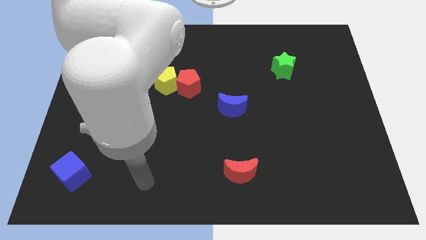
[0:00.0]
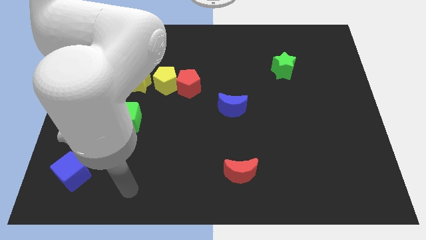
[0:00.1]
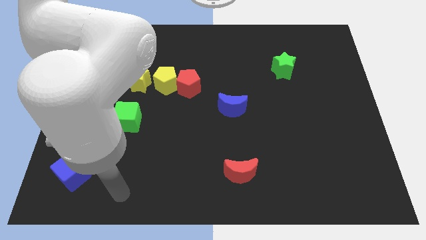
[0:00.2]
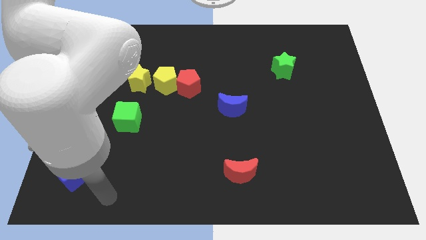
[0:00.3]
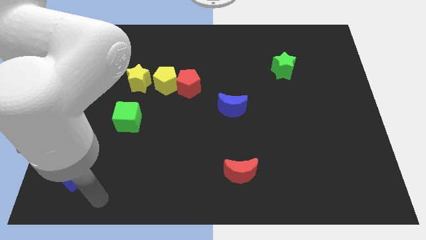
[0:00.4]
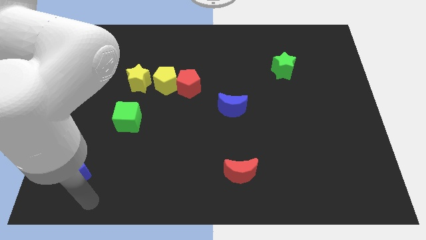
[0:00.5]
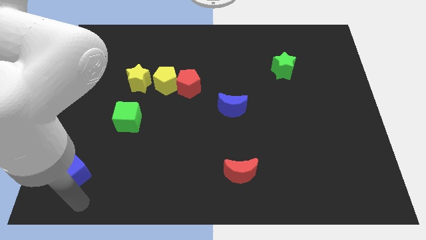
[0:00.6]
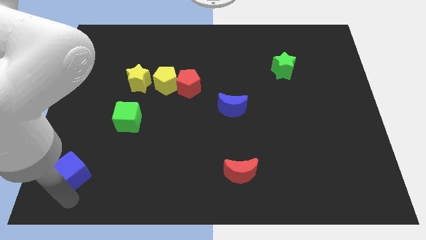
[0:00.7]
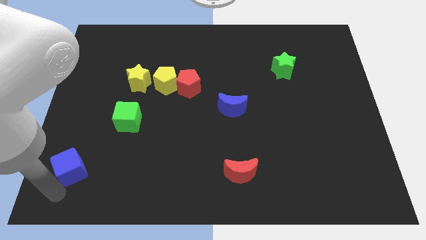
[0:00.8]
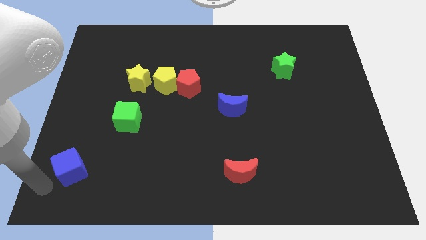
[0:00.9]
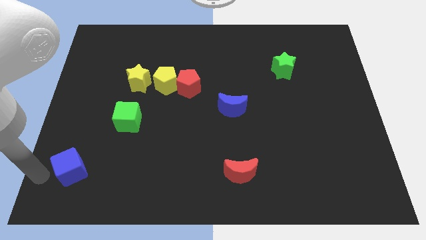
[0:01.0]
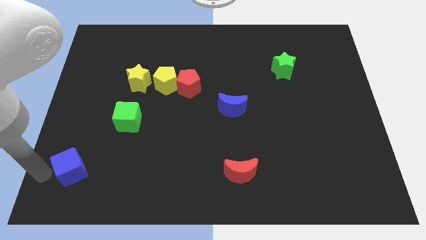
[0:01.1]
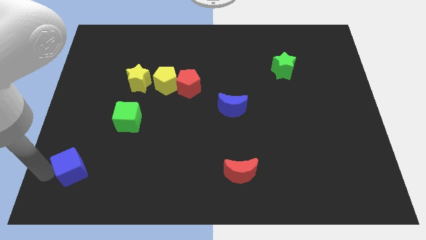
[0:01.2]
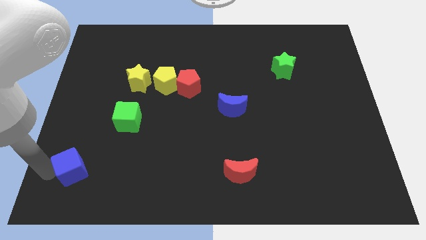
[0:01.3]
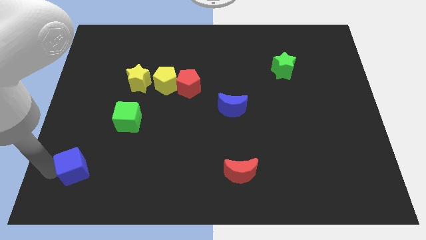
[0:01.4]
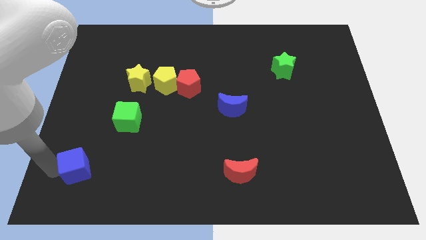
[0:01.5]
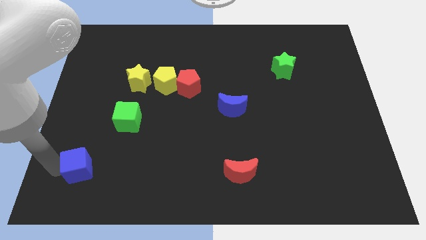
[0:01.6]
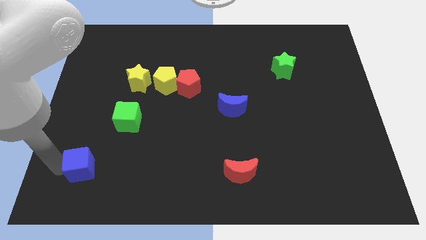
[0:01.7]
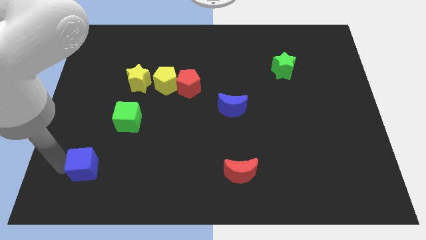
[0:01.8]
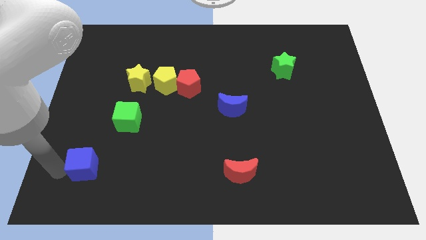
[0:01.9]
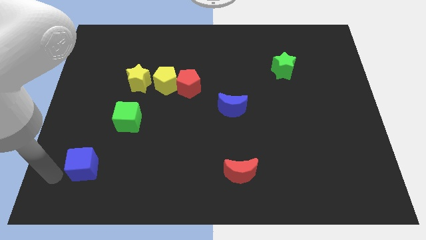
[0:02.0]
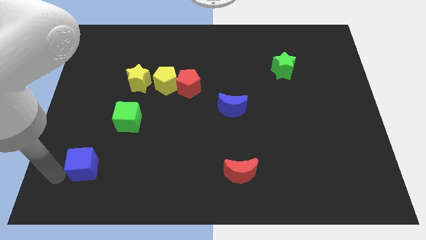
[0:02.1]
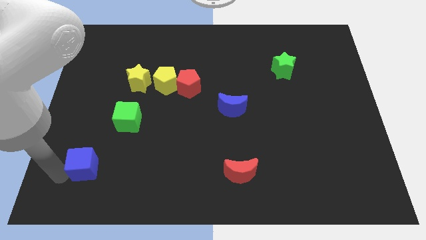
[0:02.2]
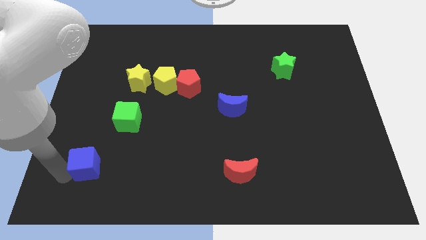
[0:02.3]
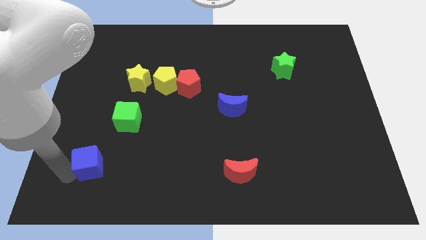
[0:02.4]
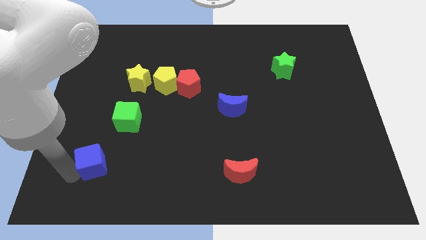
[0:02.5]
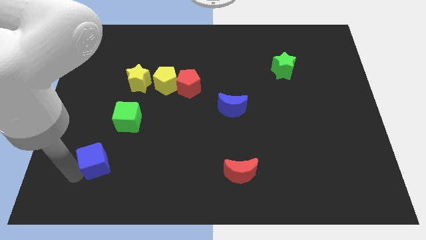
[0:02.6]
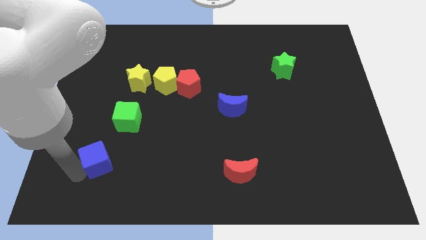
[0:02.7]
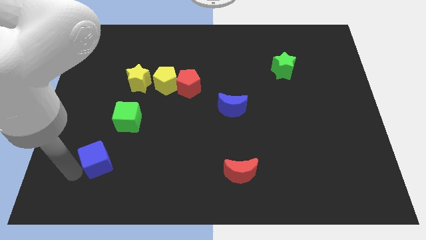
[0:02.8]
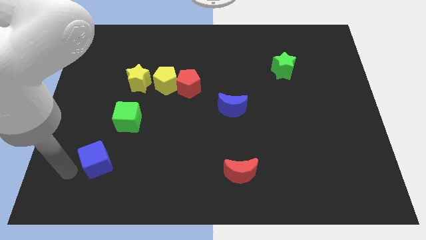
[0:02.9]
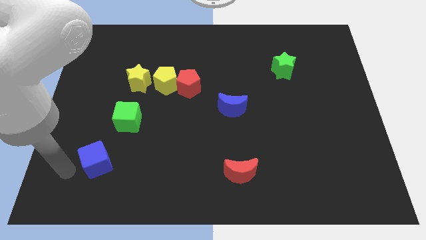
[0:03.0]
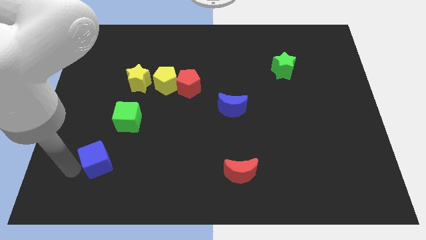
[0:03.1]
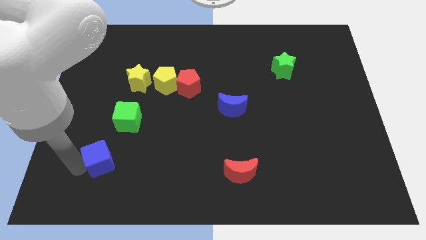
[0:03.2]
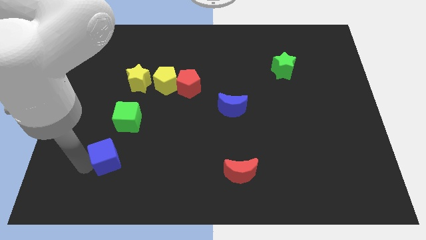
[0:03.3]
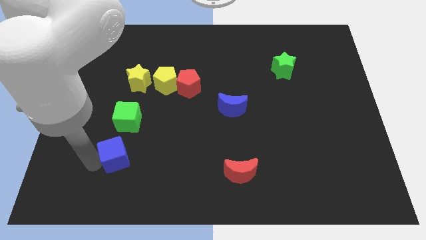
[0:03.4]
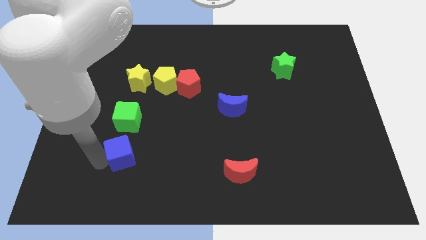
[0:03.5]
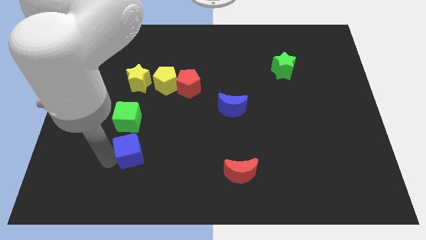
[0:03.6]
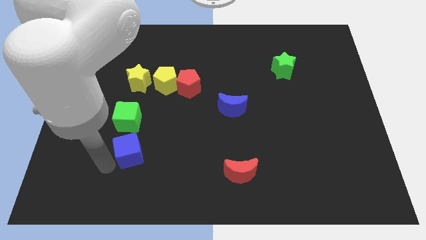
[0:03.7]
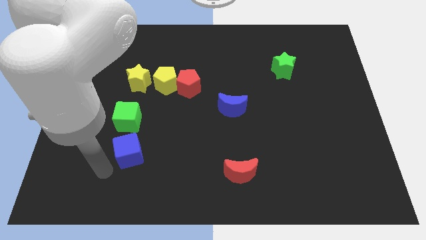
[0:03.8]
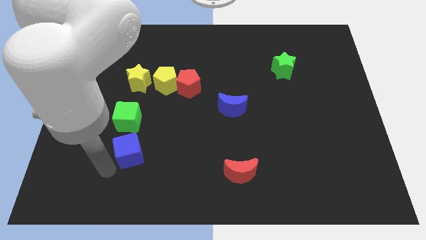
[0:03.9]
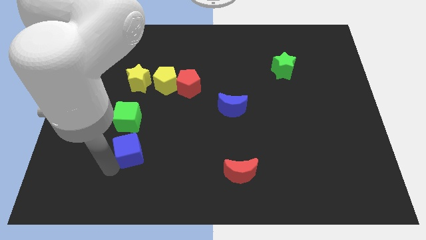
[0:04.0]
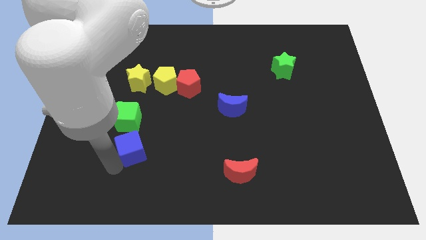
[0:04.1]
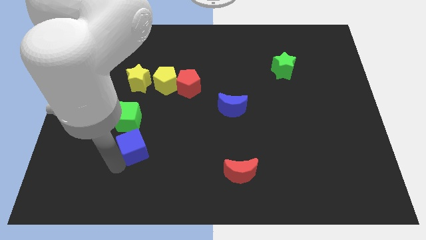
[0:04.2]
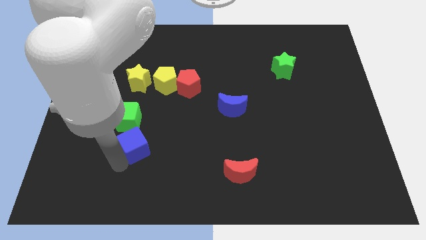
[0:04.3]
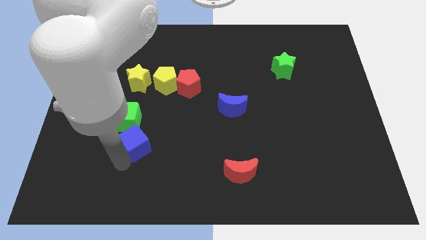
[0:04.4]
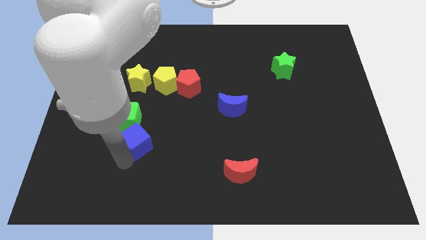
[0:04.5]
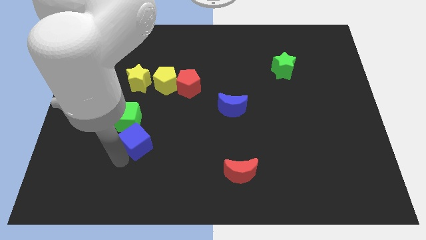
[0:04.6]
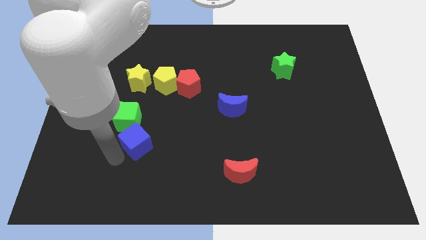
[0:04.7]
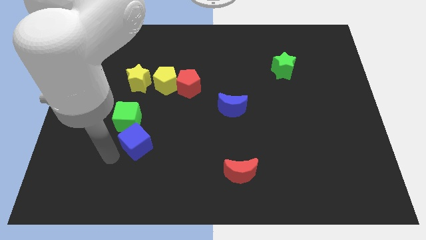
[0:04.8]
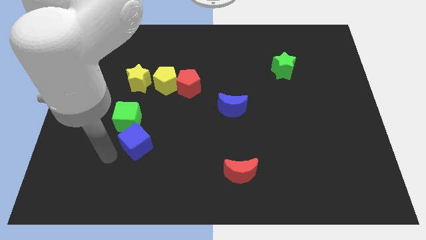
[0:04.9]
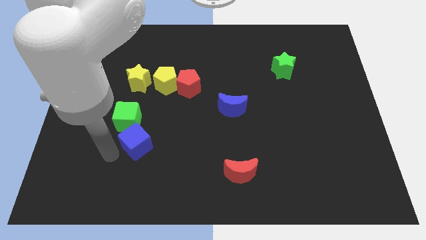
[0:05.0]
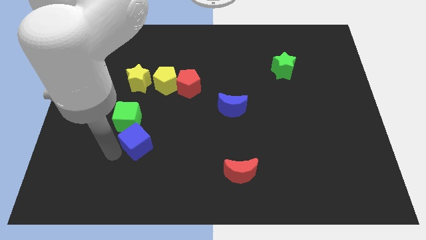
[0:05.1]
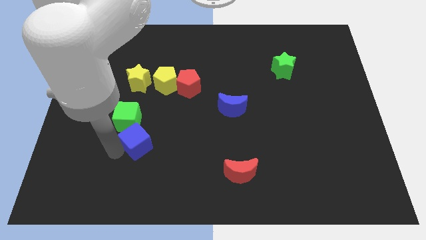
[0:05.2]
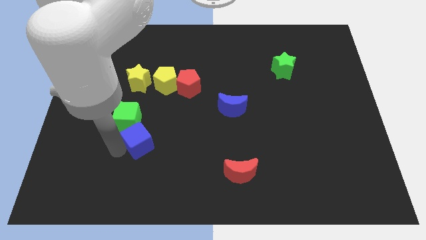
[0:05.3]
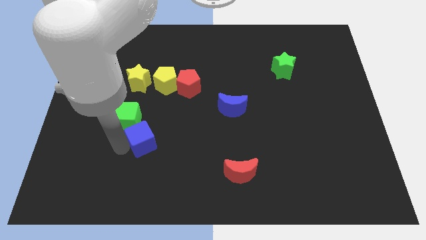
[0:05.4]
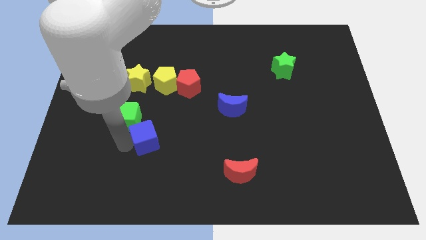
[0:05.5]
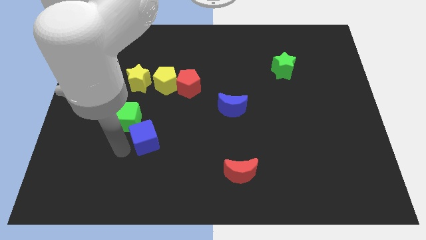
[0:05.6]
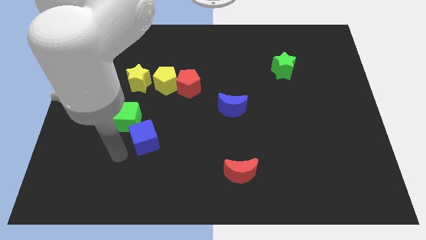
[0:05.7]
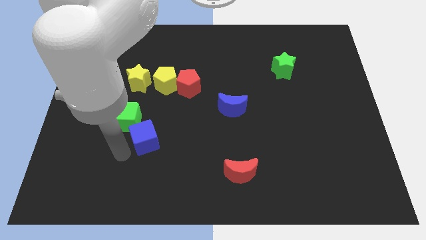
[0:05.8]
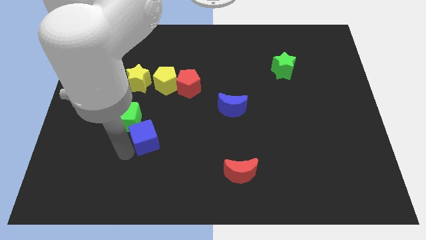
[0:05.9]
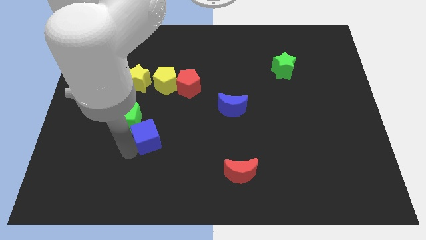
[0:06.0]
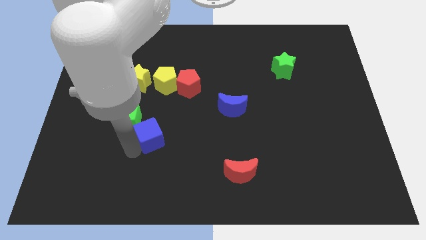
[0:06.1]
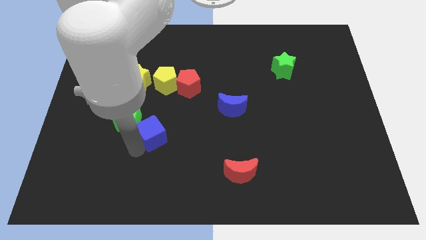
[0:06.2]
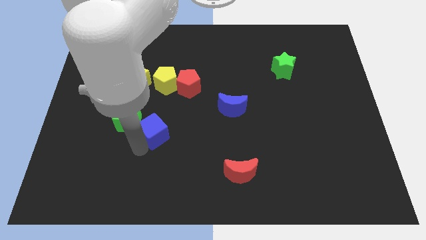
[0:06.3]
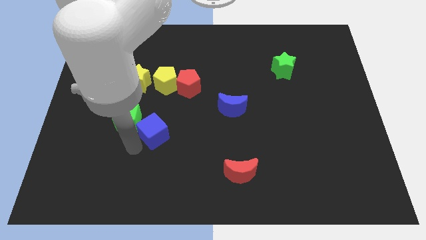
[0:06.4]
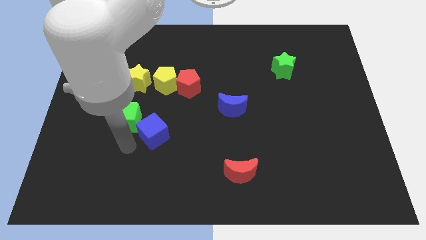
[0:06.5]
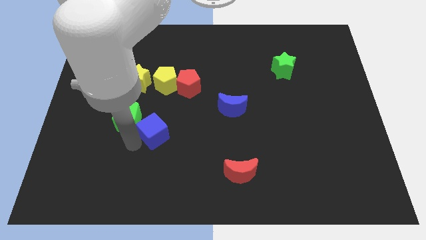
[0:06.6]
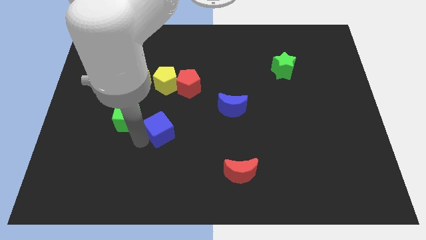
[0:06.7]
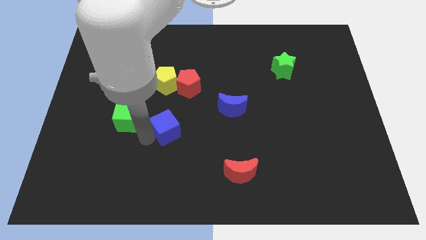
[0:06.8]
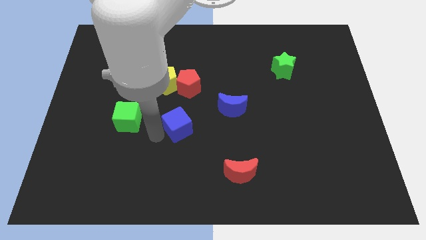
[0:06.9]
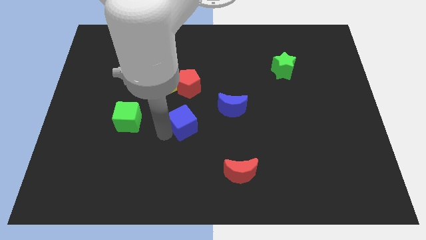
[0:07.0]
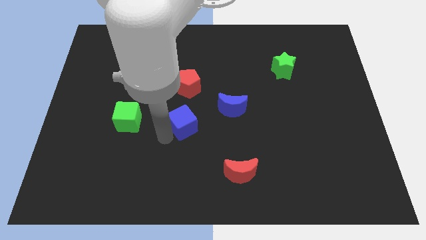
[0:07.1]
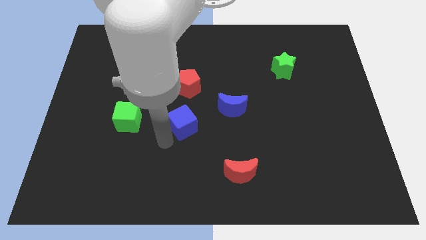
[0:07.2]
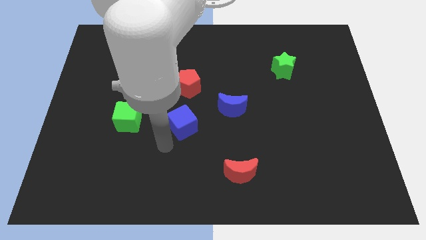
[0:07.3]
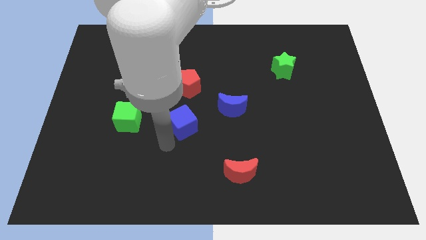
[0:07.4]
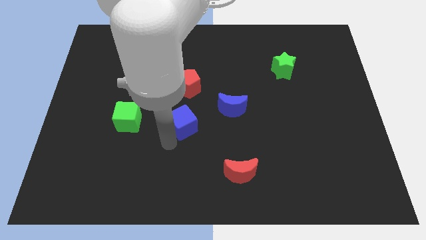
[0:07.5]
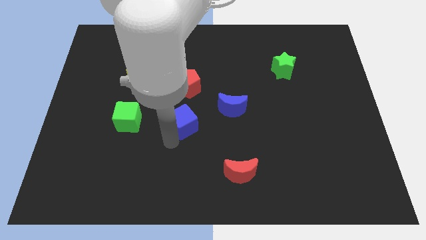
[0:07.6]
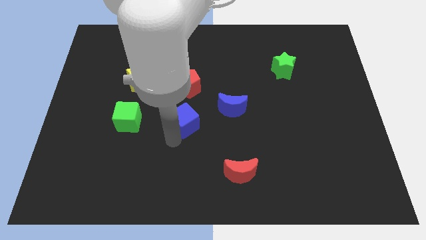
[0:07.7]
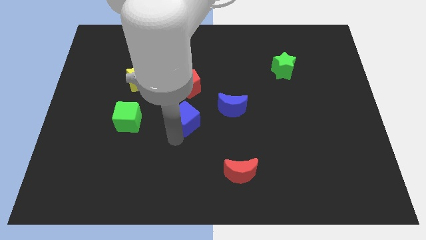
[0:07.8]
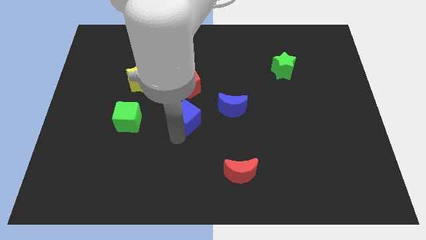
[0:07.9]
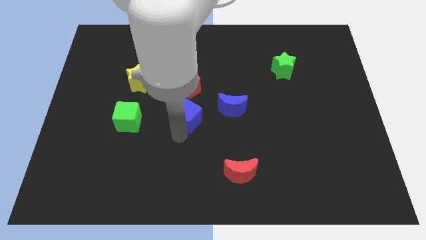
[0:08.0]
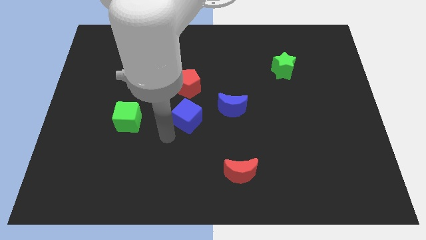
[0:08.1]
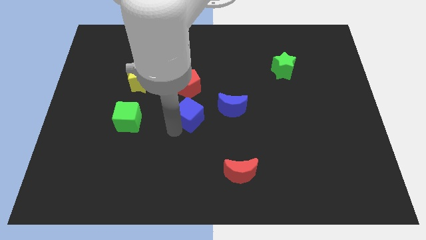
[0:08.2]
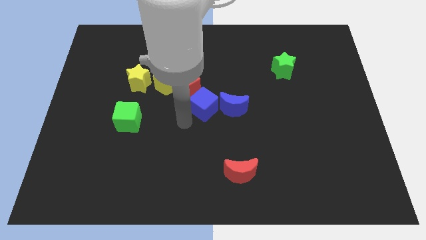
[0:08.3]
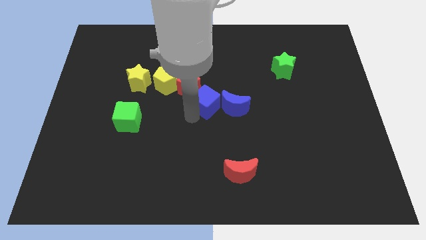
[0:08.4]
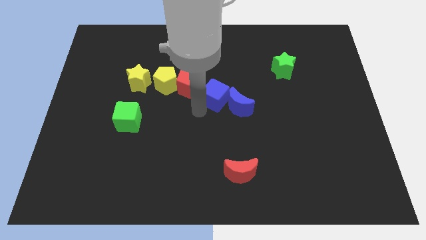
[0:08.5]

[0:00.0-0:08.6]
push the blue cube right of the red pentagon
